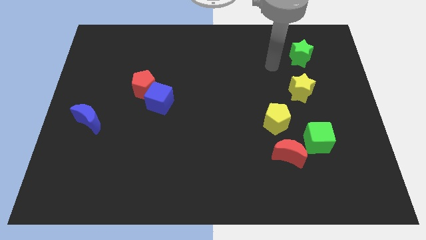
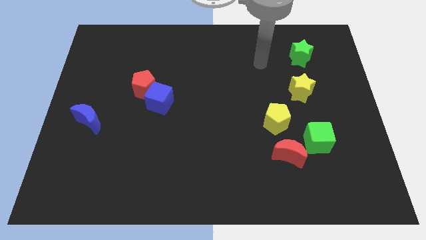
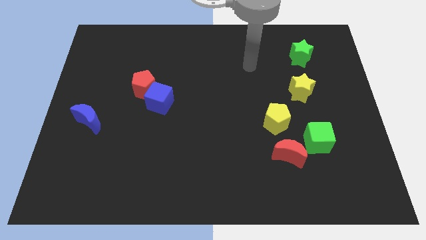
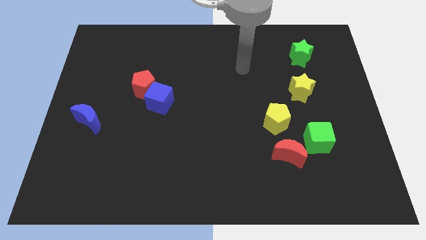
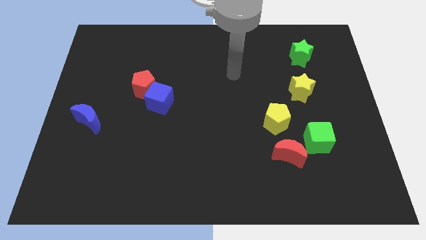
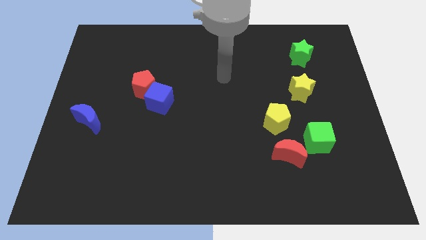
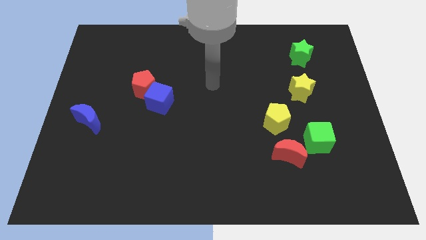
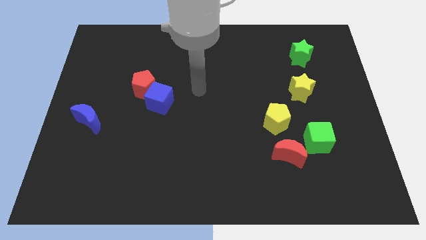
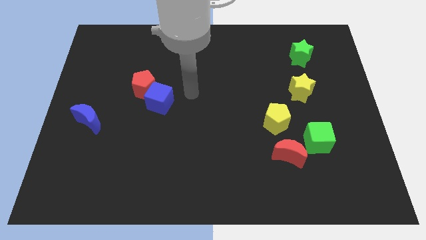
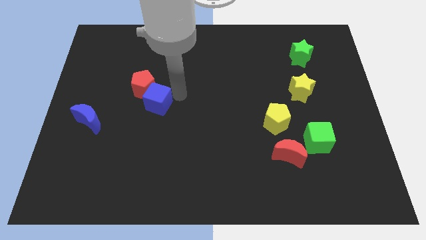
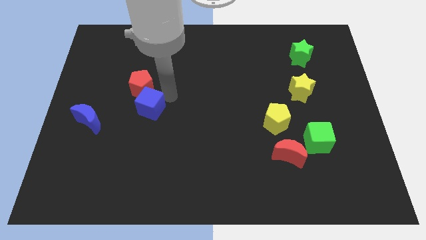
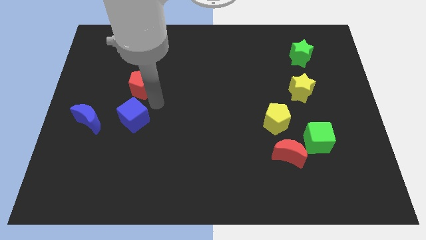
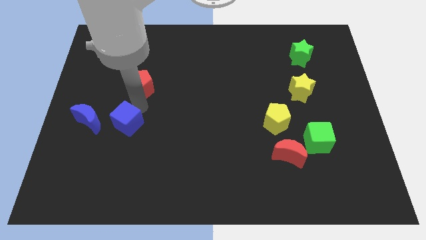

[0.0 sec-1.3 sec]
pull the red pentagon apart from the blue cube

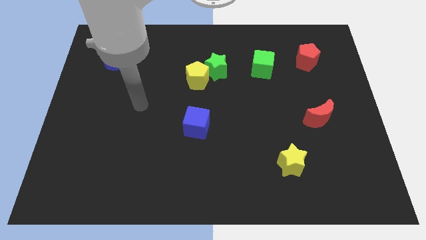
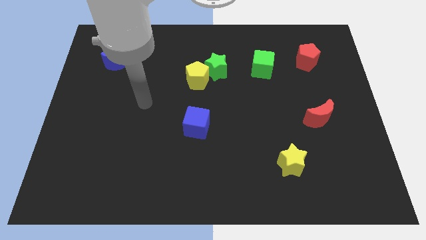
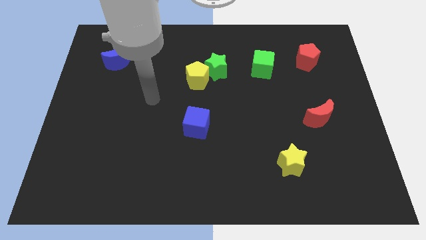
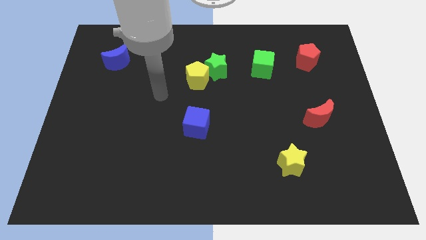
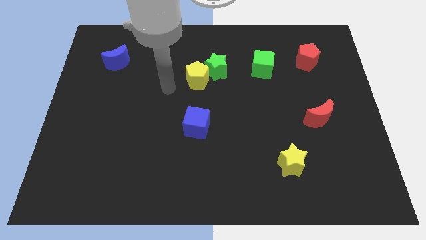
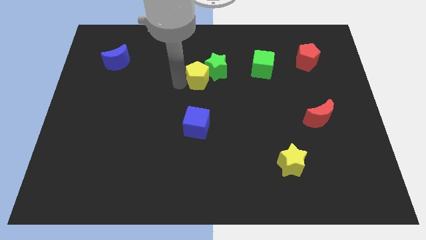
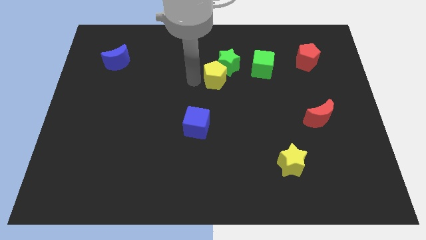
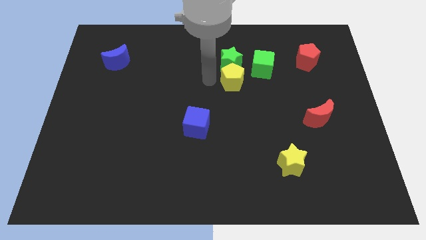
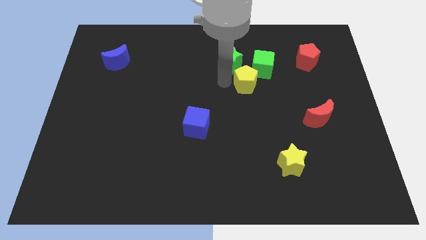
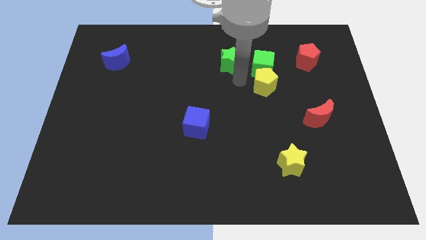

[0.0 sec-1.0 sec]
move the green star away from the yellow pentagon

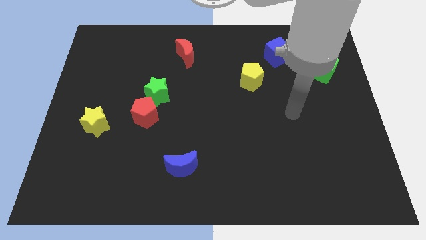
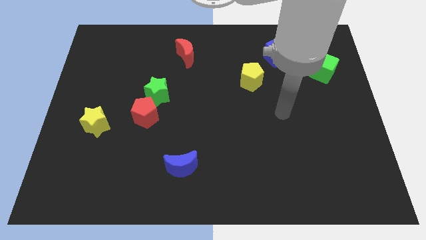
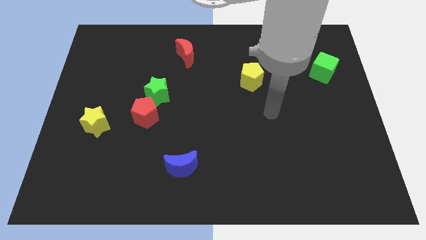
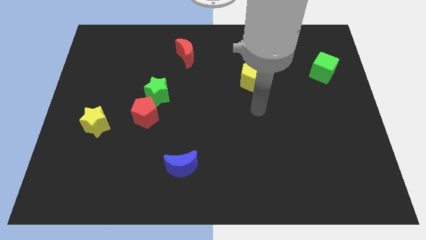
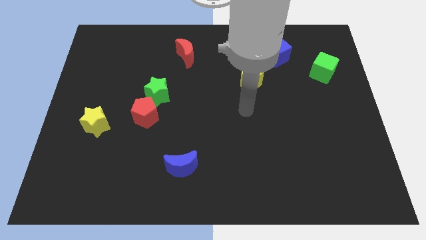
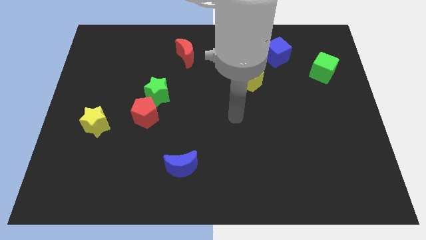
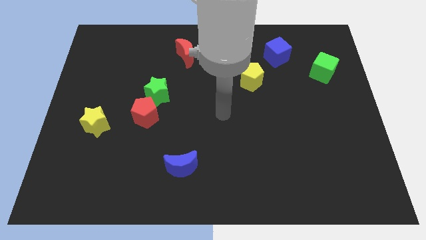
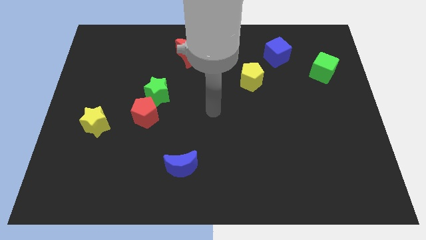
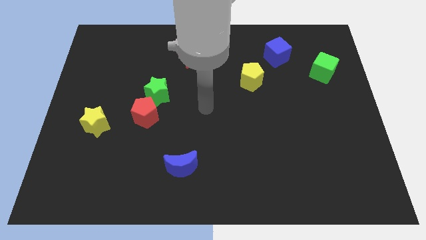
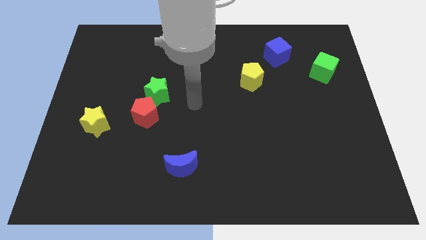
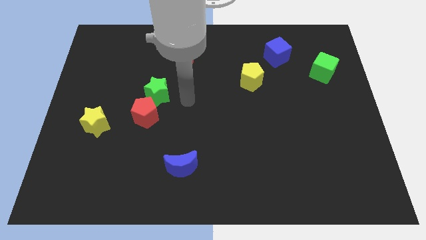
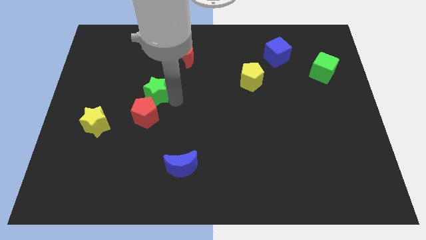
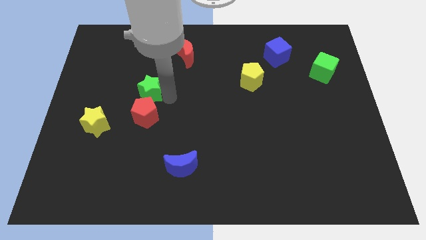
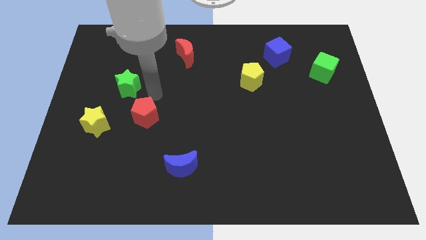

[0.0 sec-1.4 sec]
move the red pentagon away from the green star

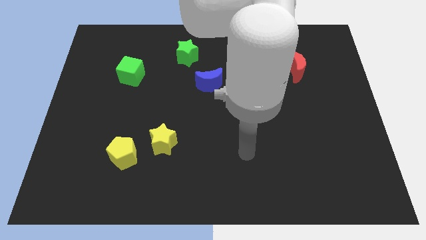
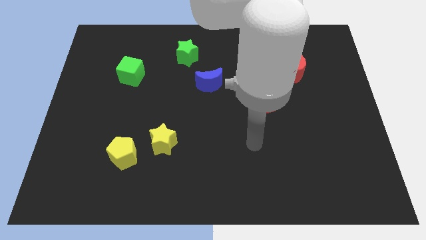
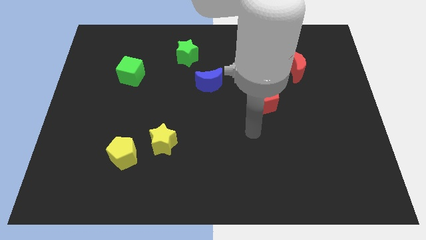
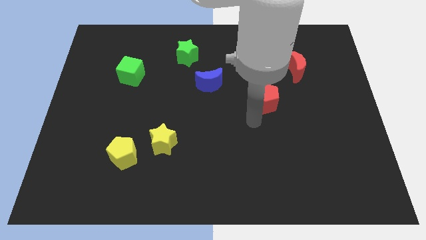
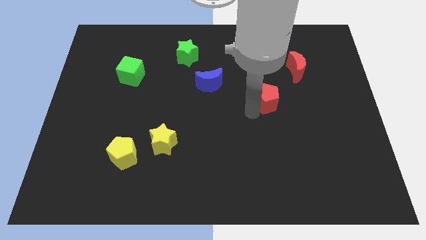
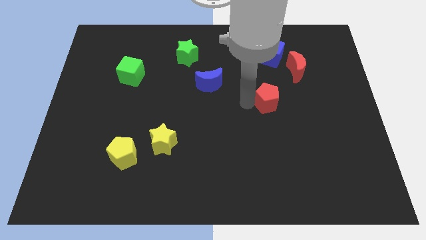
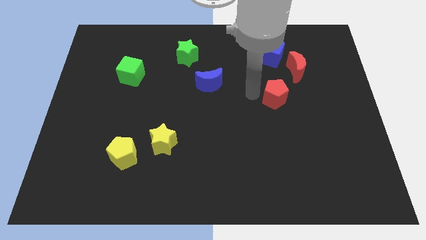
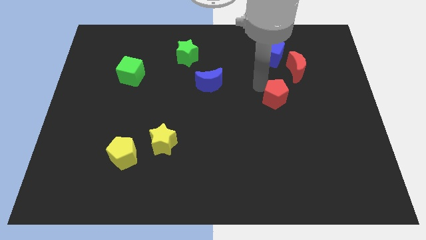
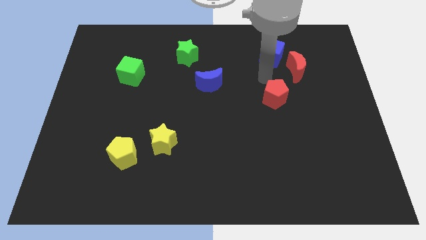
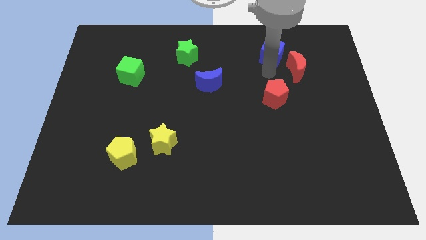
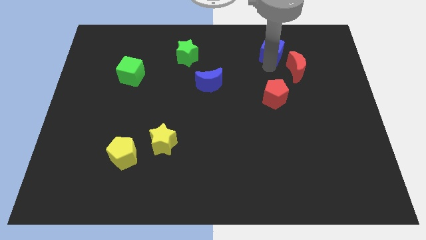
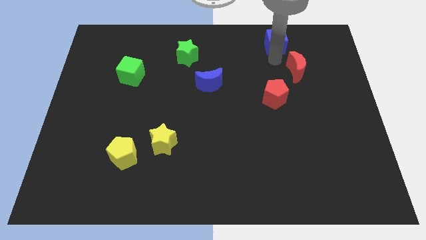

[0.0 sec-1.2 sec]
pull the red moon apart from the blue cube

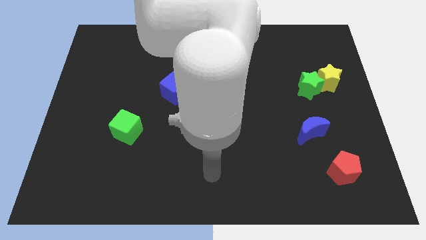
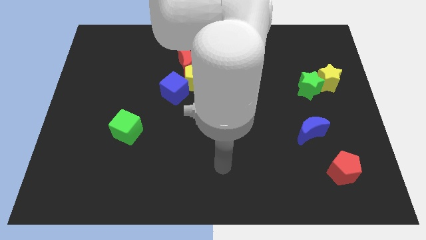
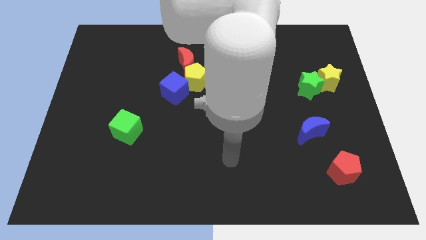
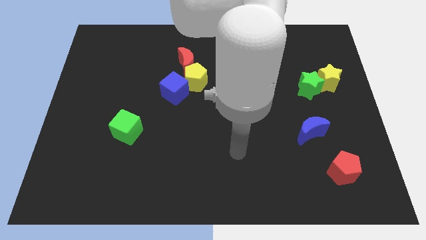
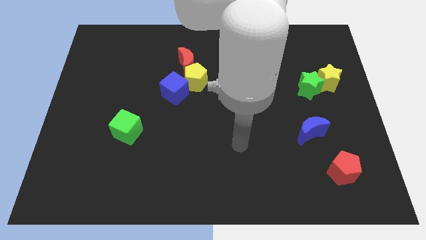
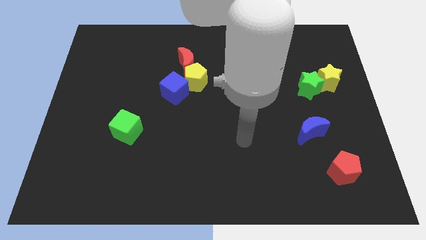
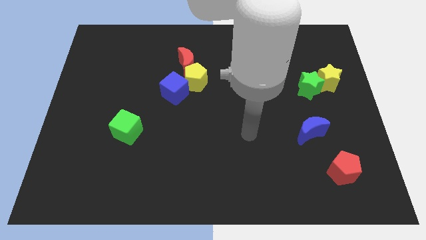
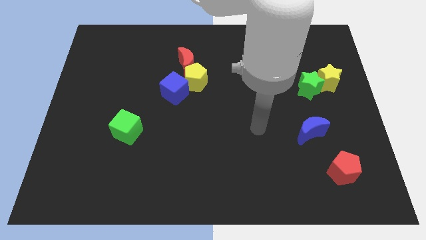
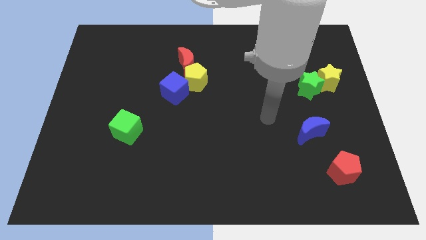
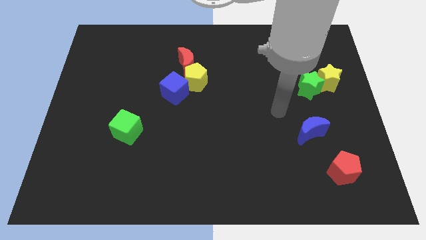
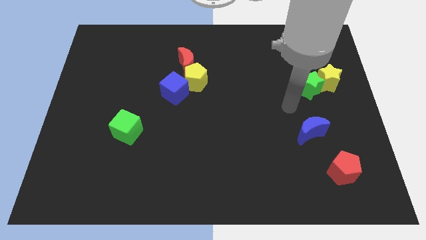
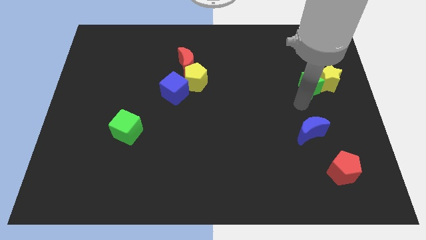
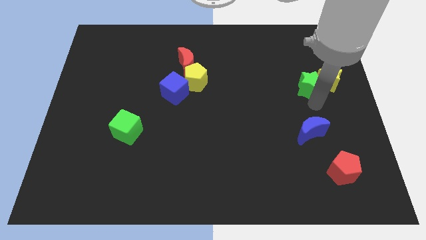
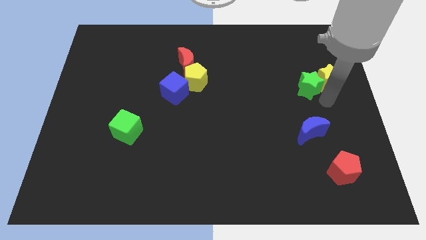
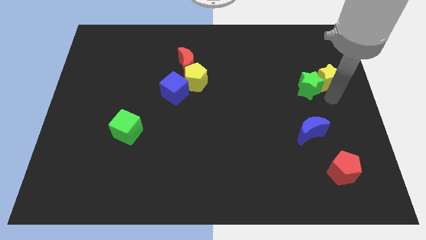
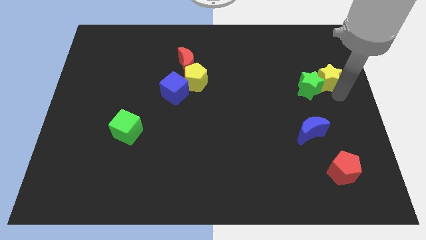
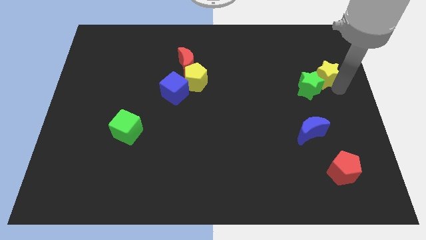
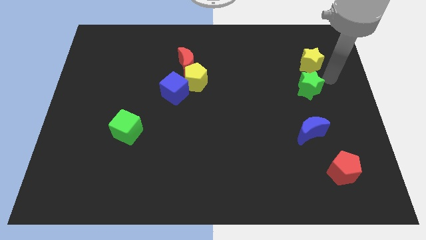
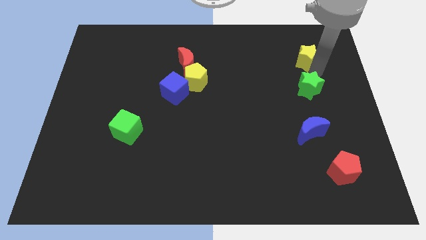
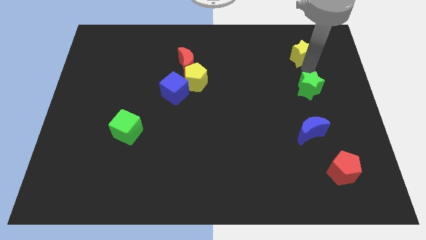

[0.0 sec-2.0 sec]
separate the green star from the yellow star

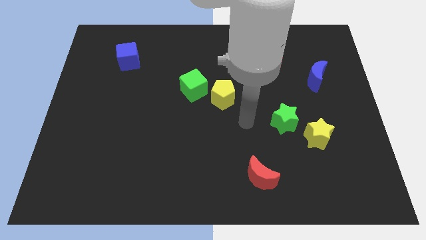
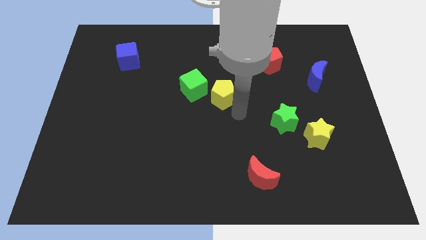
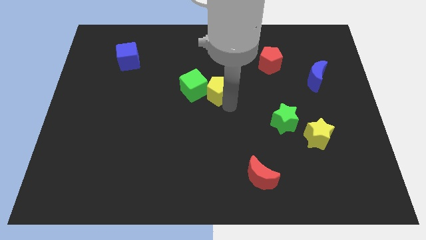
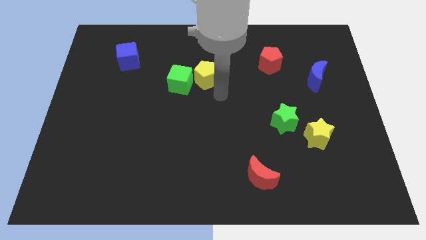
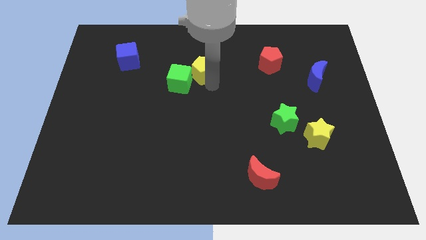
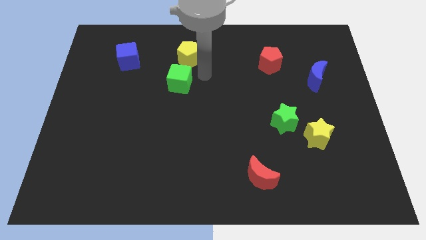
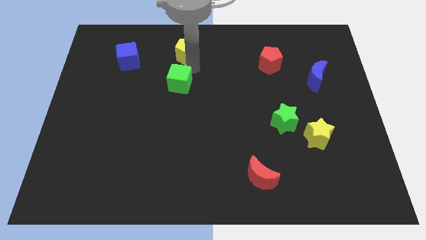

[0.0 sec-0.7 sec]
pull the green cube apart from the yellow pentagon

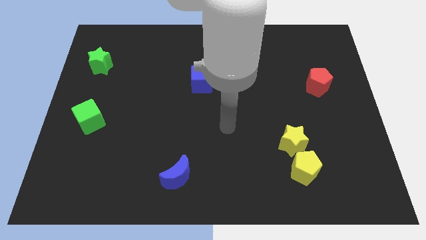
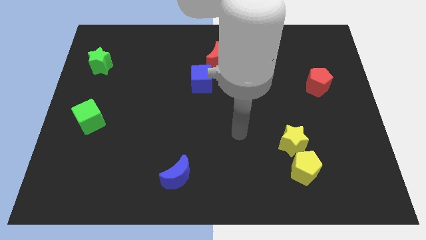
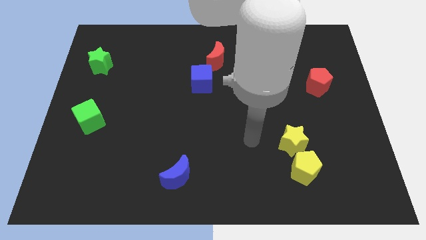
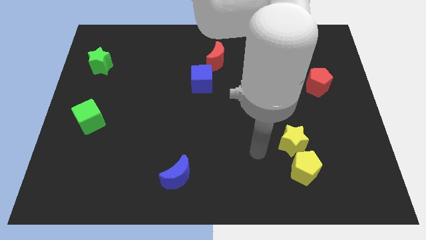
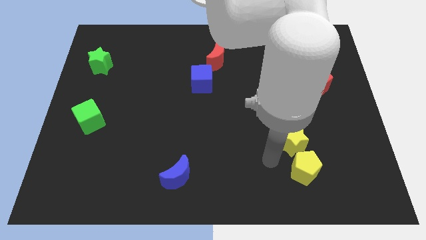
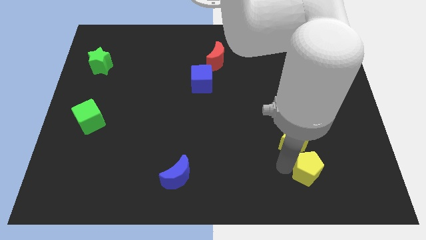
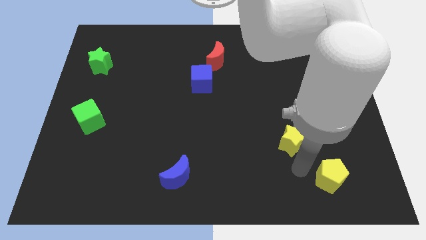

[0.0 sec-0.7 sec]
pull the yellow star apart from the yellow pentagon

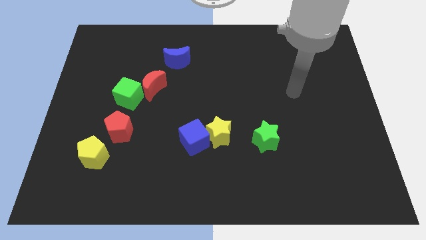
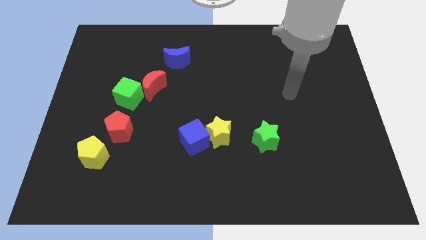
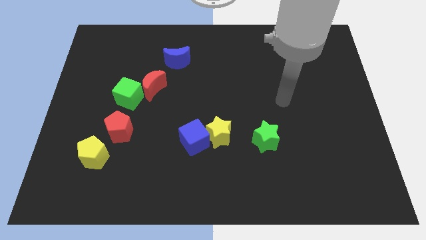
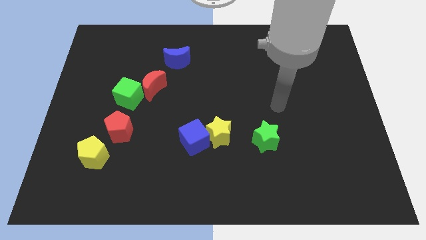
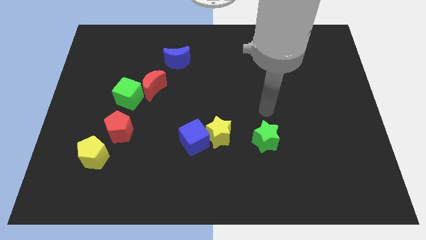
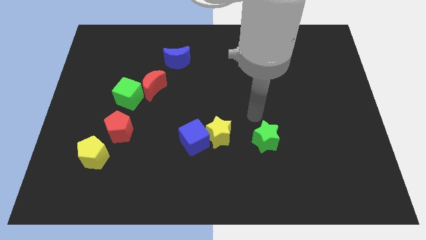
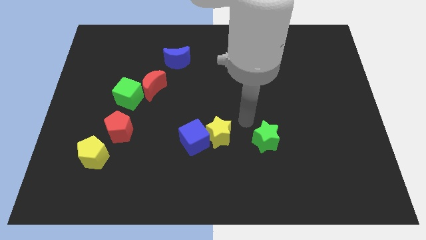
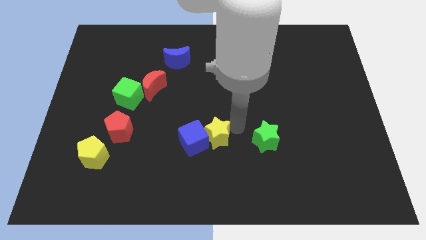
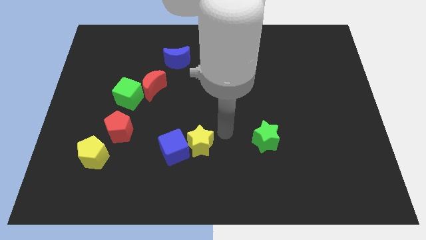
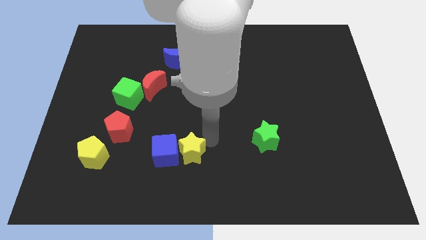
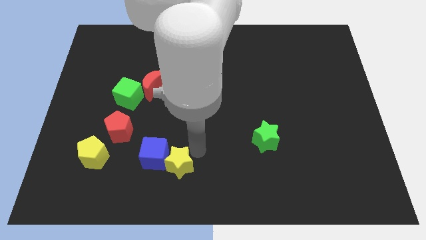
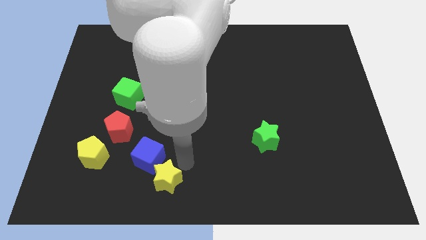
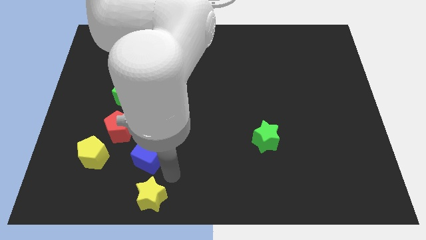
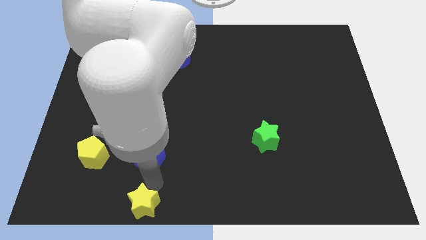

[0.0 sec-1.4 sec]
separate the blue cube from the yellow star
